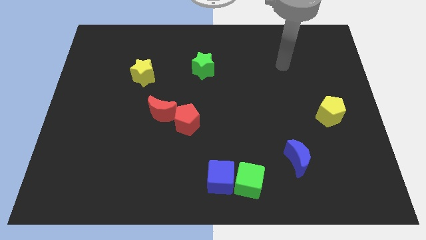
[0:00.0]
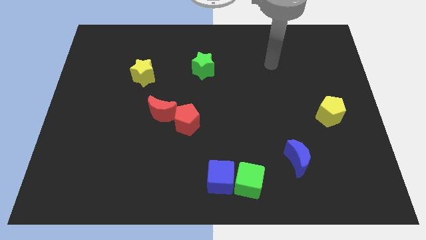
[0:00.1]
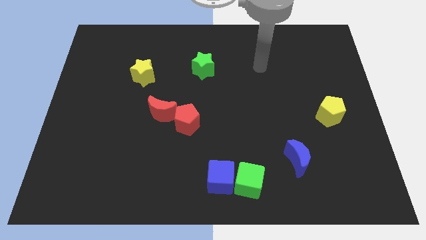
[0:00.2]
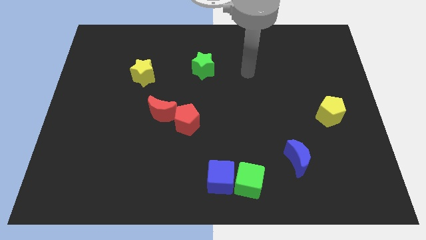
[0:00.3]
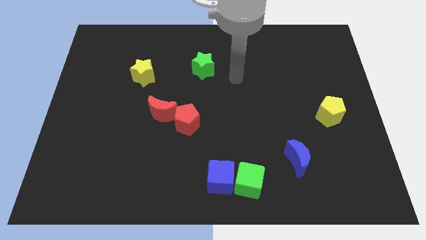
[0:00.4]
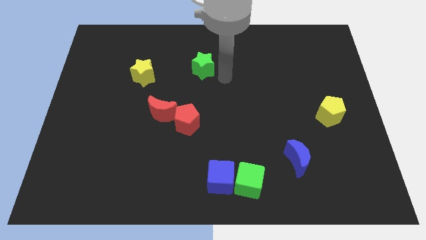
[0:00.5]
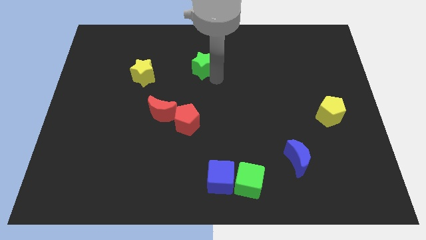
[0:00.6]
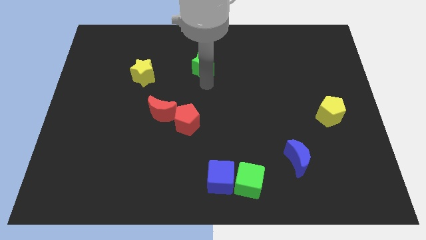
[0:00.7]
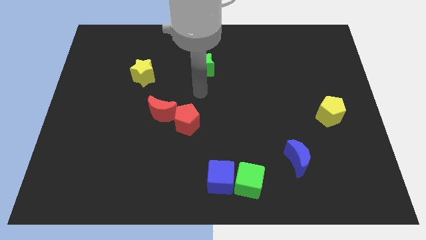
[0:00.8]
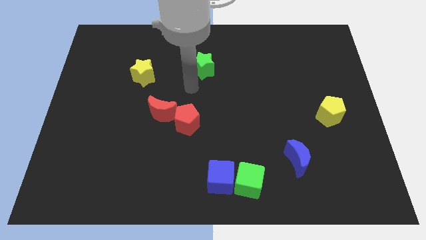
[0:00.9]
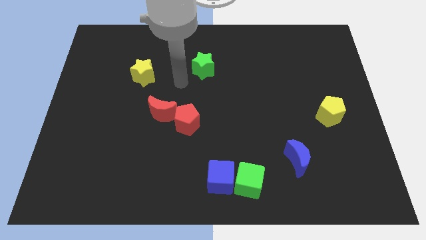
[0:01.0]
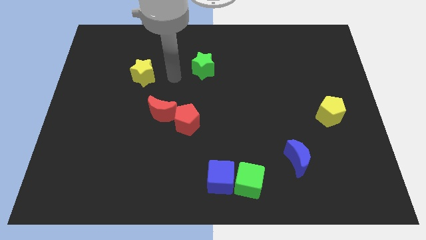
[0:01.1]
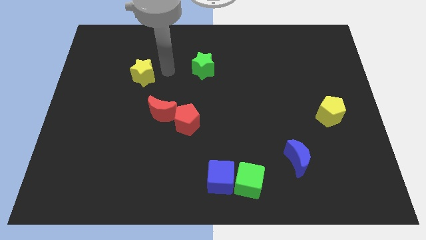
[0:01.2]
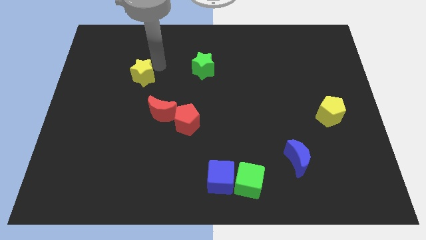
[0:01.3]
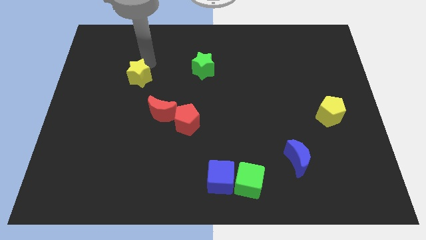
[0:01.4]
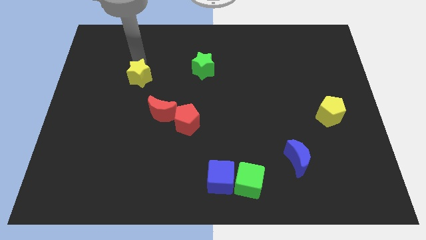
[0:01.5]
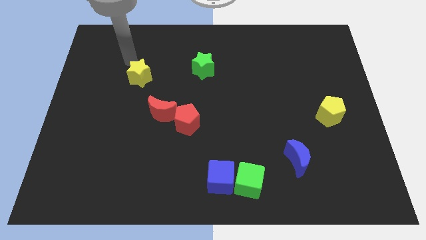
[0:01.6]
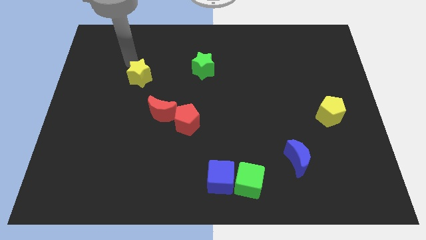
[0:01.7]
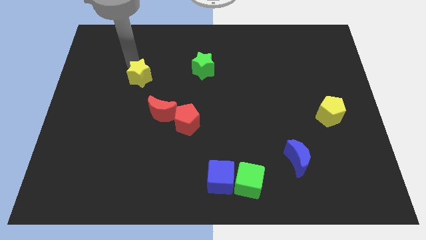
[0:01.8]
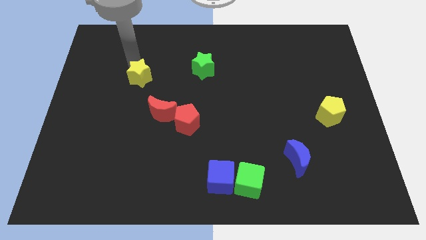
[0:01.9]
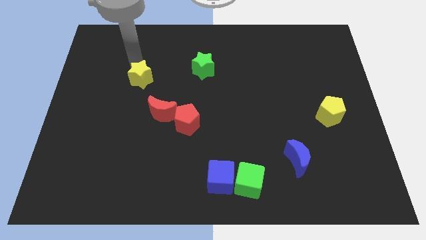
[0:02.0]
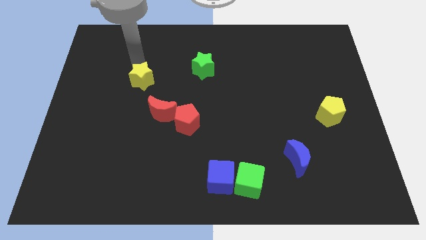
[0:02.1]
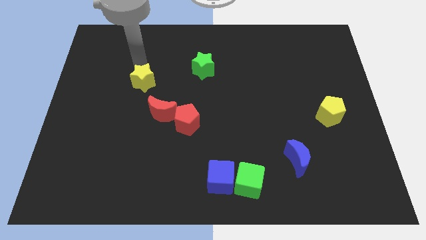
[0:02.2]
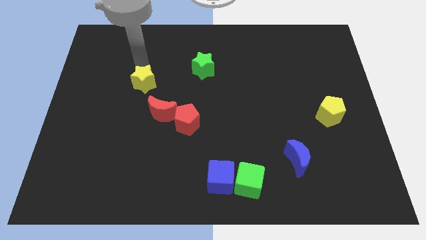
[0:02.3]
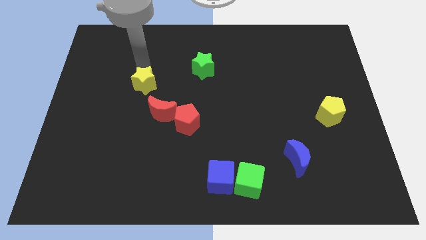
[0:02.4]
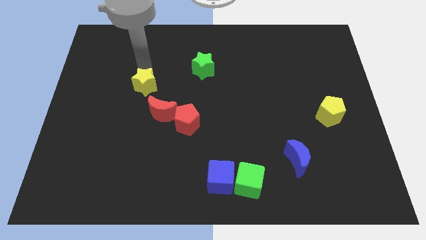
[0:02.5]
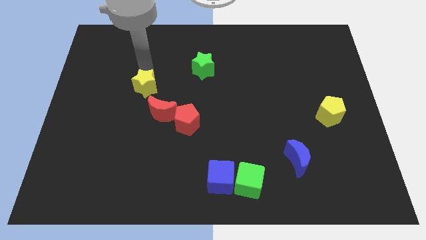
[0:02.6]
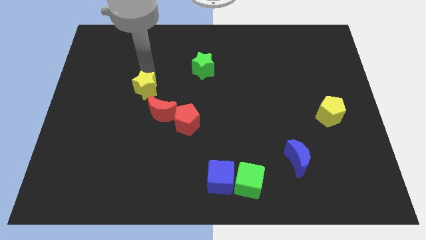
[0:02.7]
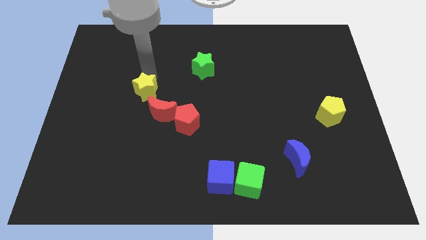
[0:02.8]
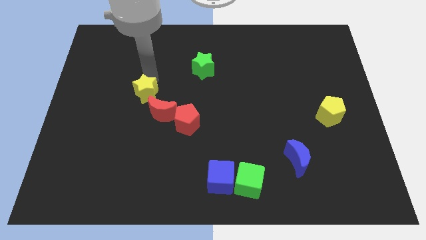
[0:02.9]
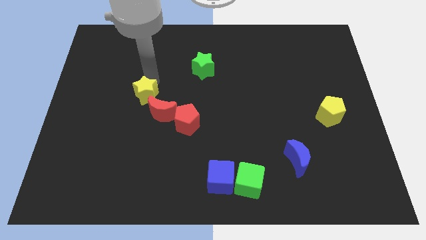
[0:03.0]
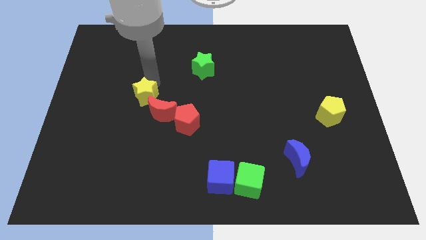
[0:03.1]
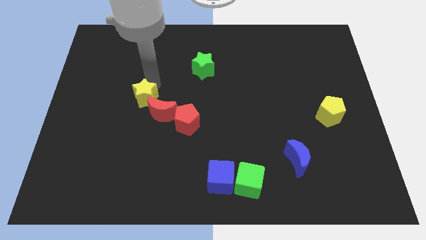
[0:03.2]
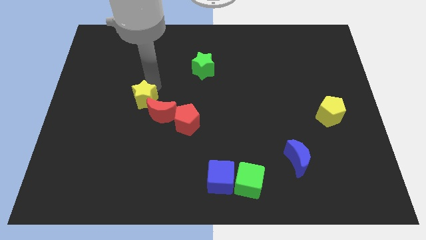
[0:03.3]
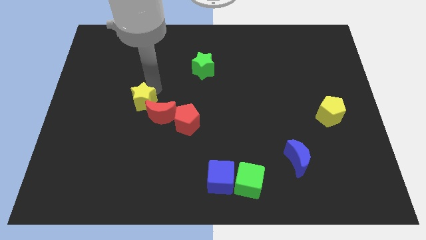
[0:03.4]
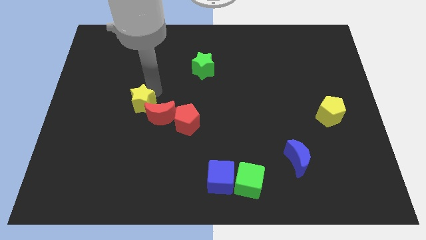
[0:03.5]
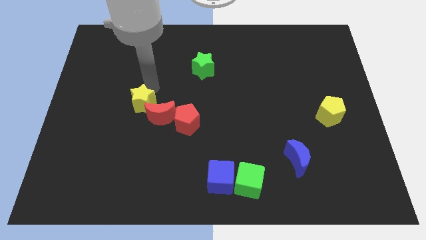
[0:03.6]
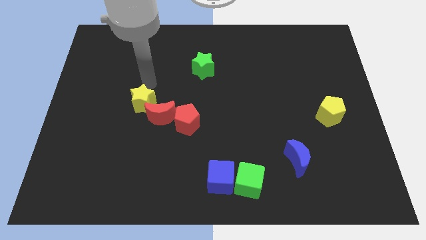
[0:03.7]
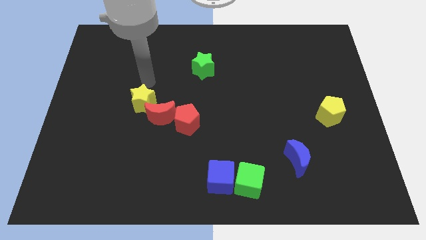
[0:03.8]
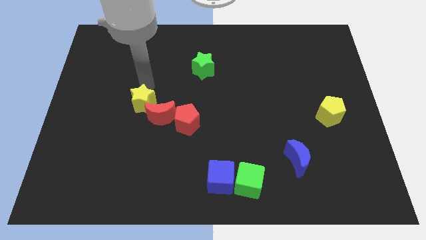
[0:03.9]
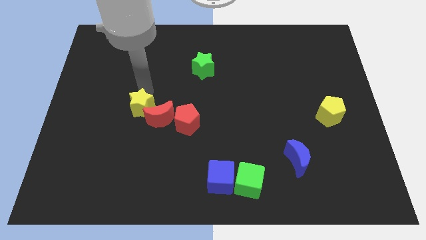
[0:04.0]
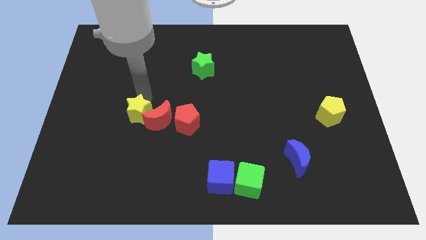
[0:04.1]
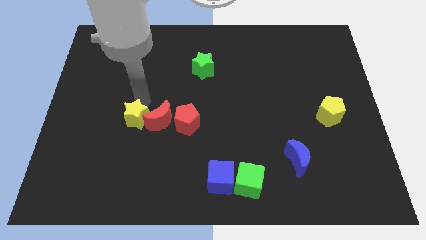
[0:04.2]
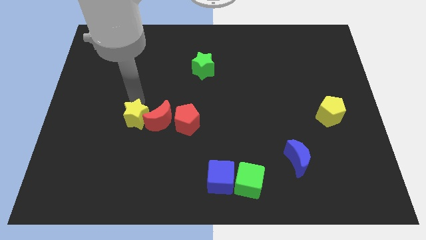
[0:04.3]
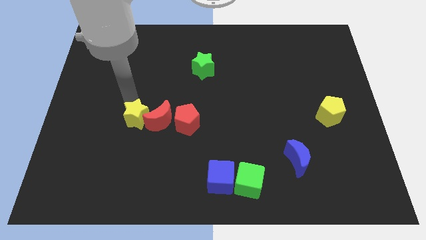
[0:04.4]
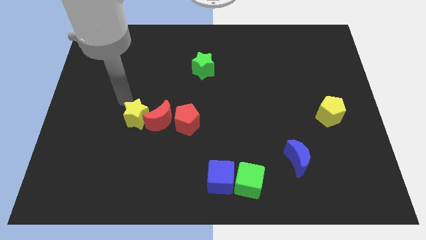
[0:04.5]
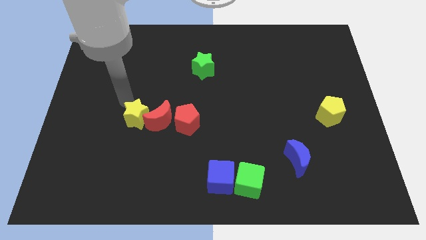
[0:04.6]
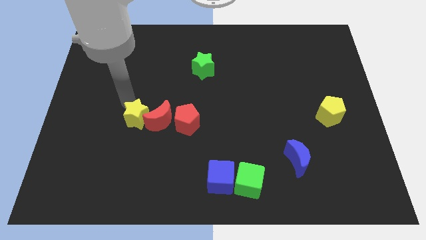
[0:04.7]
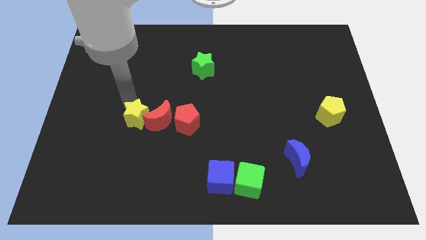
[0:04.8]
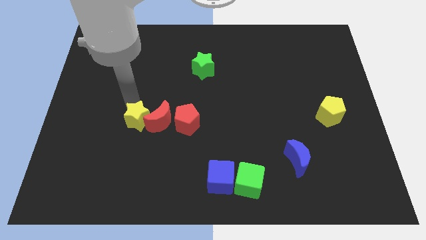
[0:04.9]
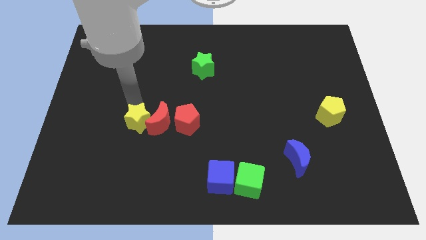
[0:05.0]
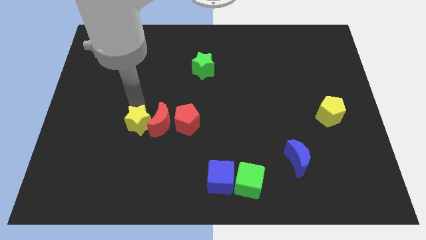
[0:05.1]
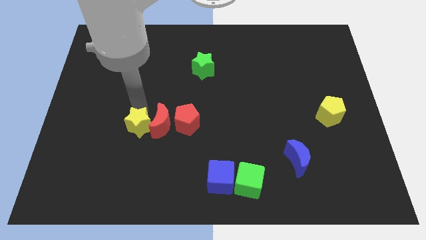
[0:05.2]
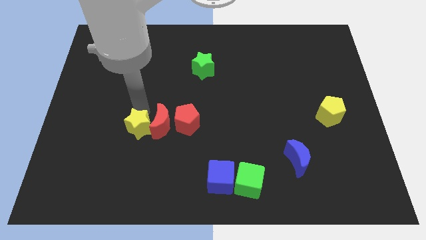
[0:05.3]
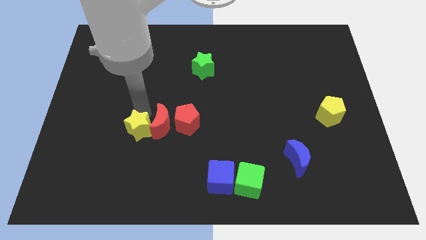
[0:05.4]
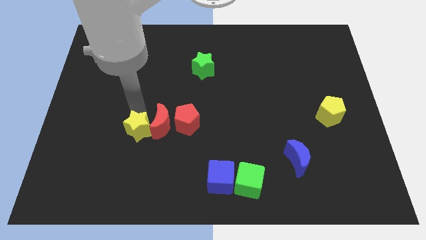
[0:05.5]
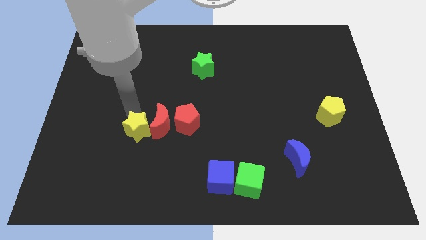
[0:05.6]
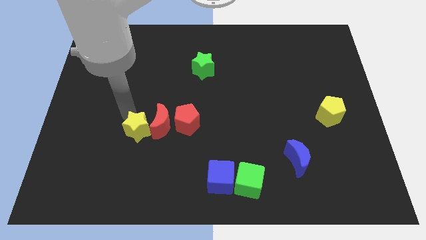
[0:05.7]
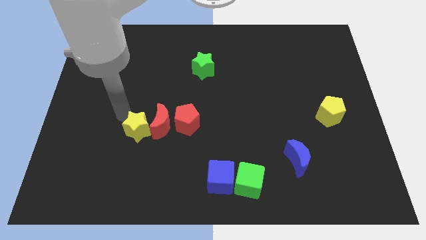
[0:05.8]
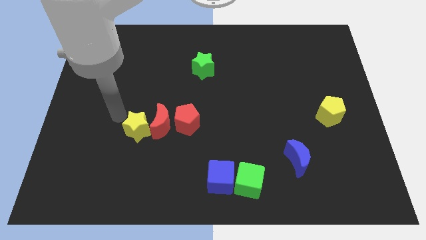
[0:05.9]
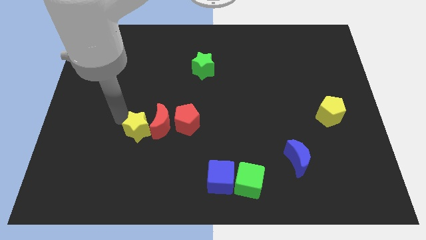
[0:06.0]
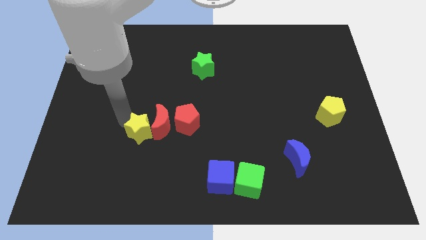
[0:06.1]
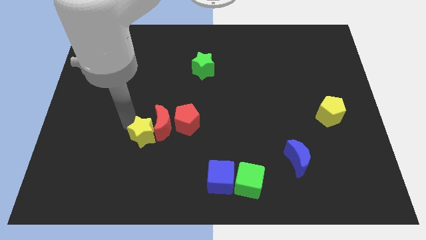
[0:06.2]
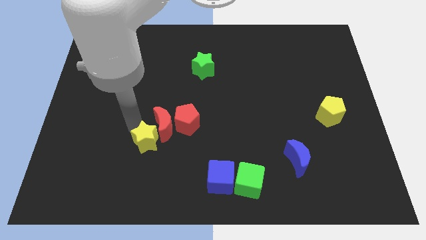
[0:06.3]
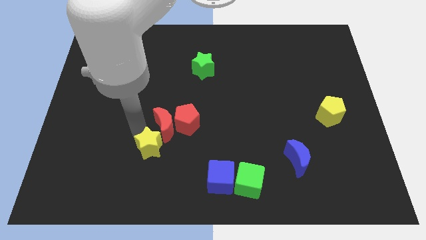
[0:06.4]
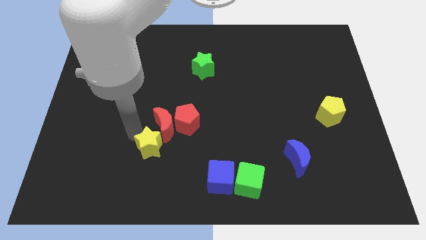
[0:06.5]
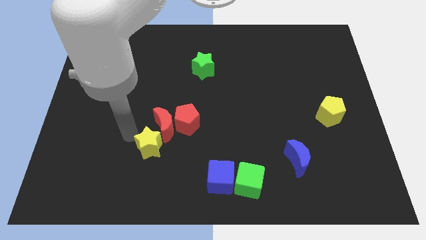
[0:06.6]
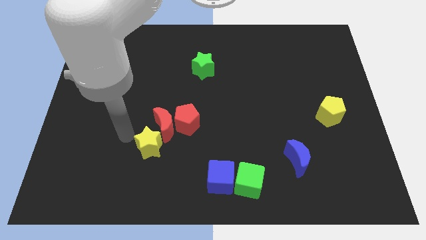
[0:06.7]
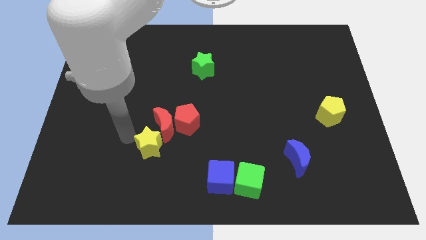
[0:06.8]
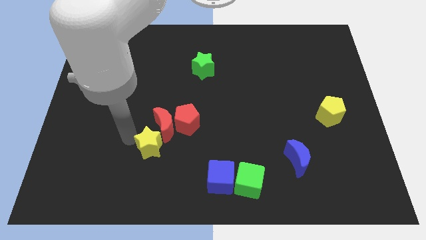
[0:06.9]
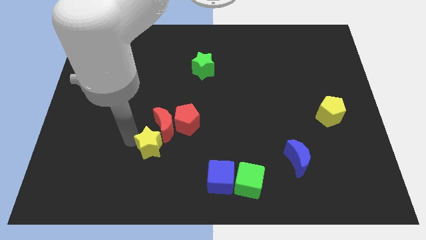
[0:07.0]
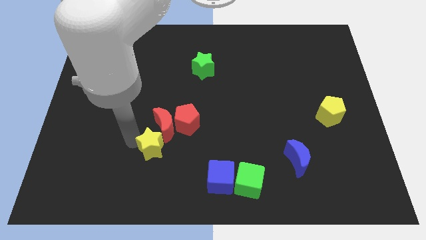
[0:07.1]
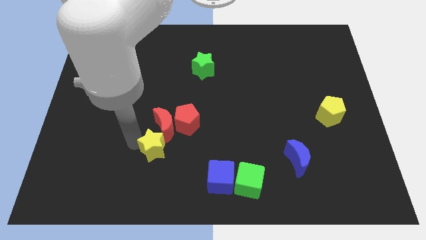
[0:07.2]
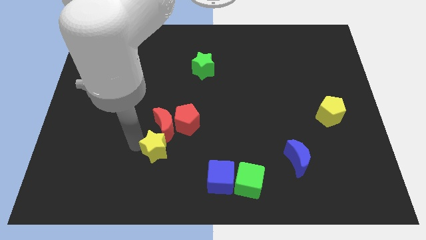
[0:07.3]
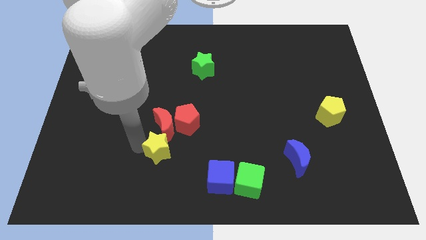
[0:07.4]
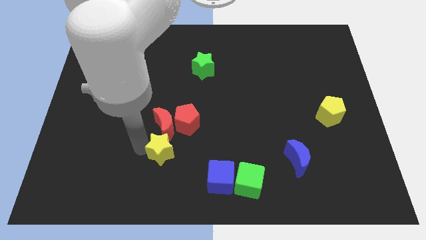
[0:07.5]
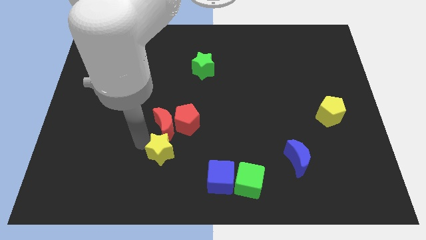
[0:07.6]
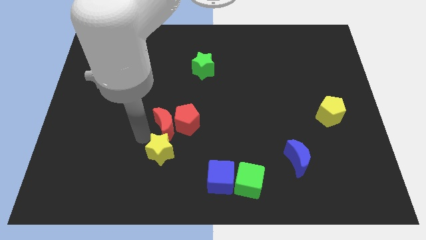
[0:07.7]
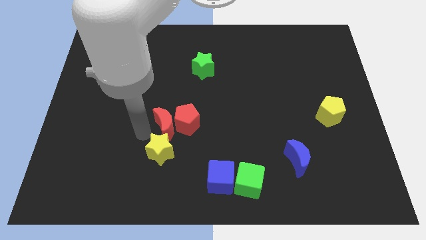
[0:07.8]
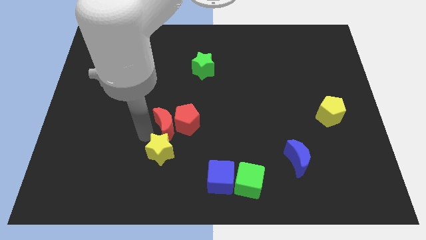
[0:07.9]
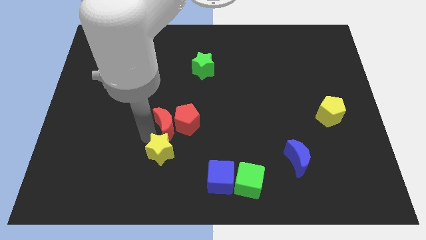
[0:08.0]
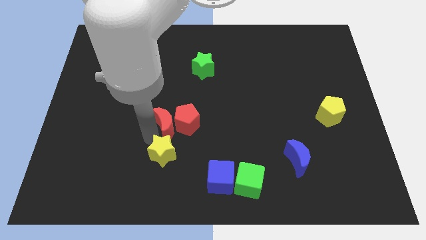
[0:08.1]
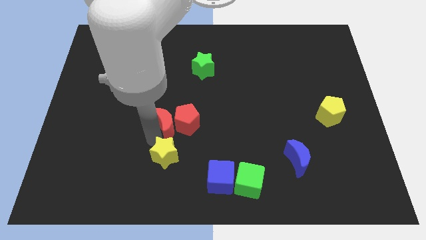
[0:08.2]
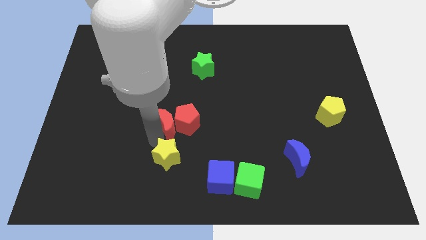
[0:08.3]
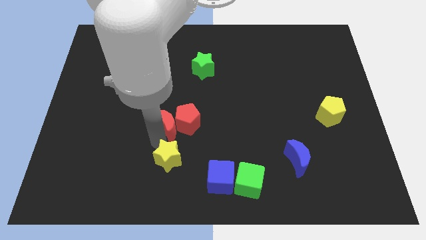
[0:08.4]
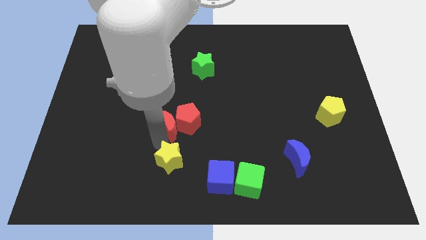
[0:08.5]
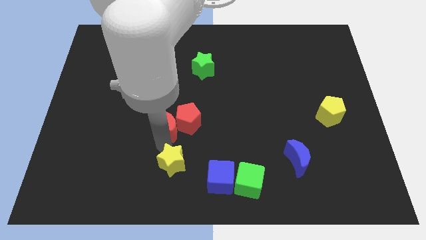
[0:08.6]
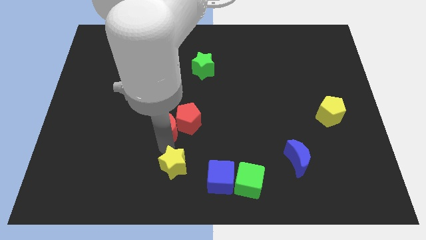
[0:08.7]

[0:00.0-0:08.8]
slide the yellow star to the bottom
